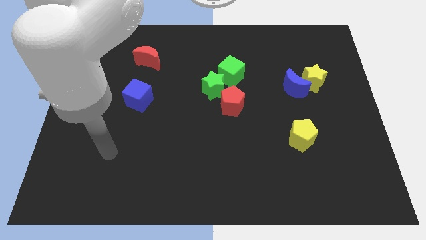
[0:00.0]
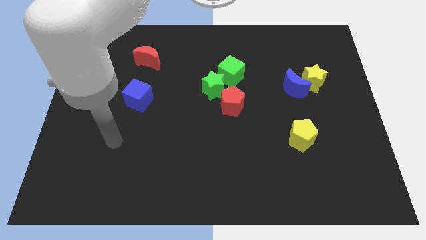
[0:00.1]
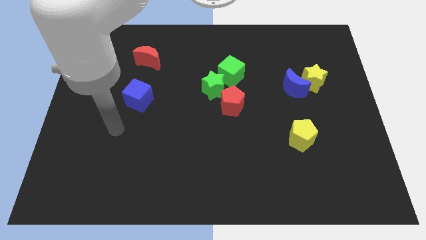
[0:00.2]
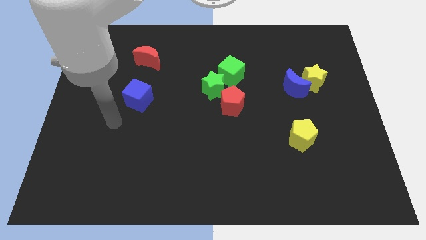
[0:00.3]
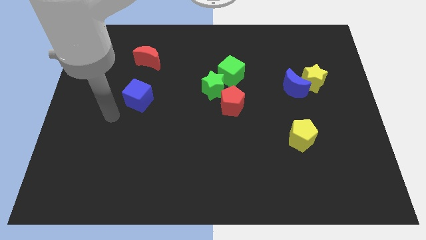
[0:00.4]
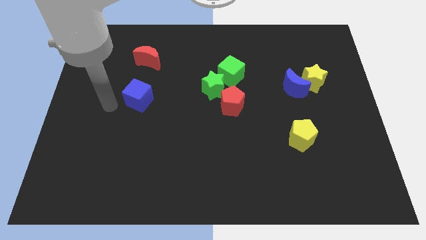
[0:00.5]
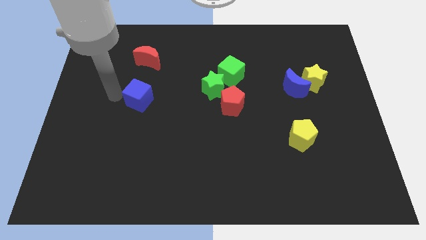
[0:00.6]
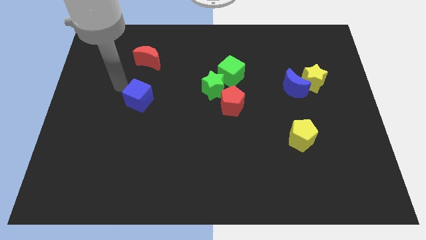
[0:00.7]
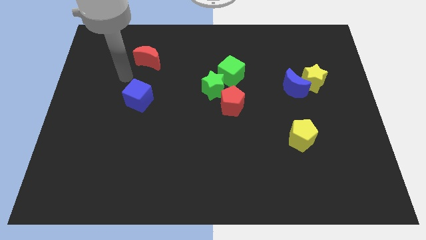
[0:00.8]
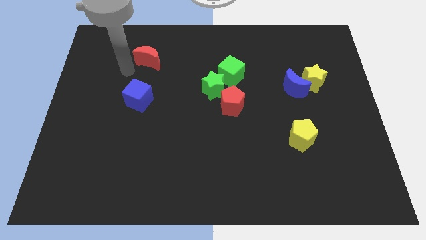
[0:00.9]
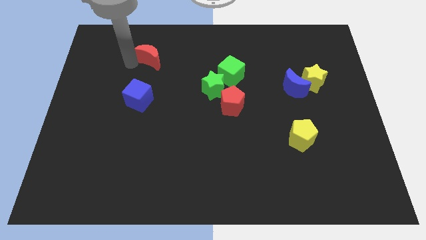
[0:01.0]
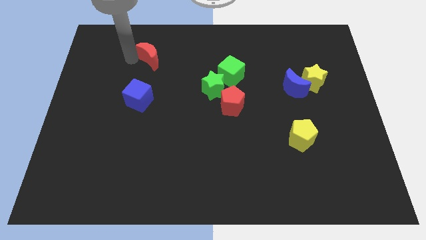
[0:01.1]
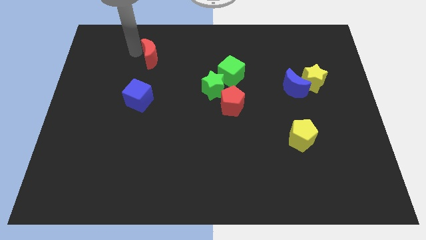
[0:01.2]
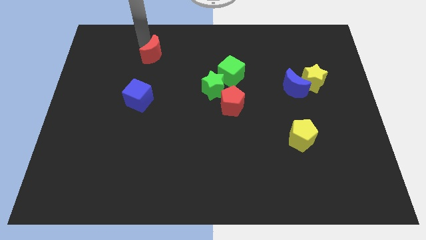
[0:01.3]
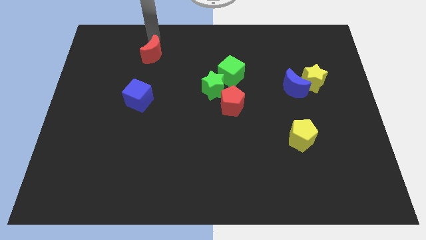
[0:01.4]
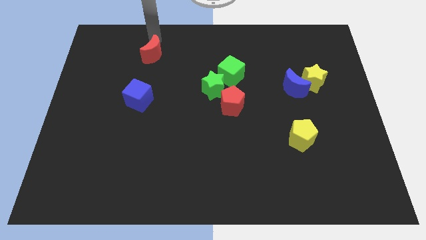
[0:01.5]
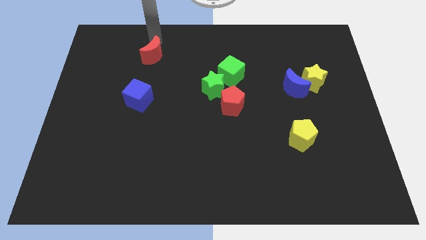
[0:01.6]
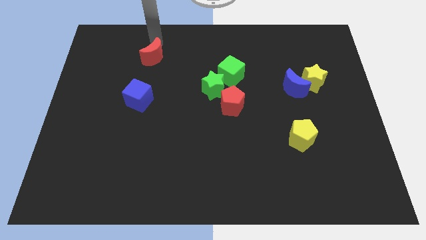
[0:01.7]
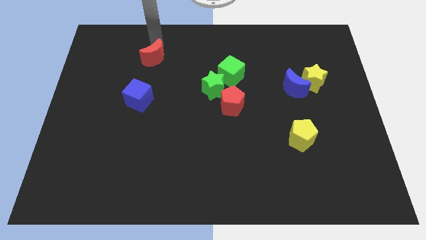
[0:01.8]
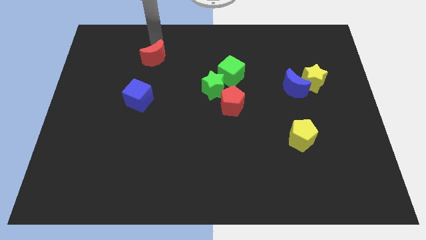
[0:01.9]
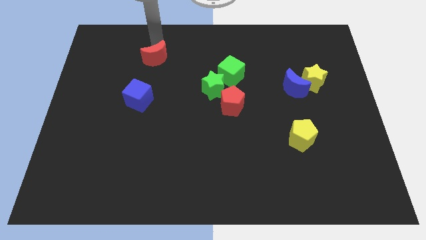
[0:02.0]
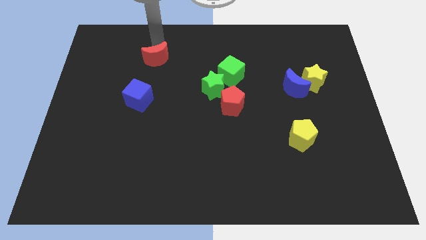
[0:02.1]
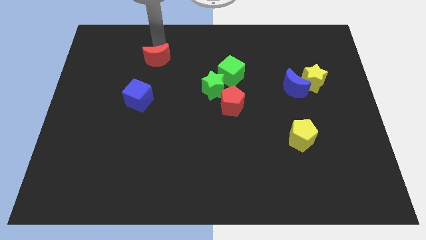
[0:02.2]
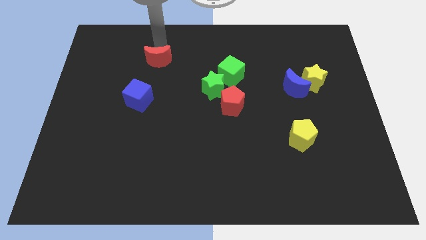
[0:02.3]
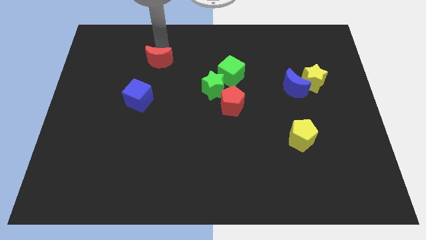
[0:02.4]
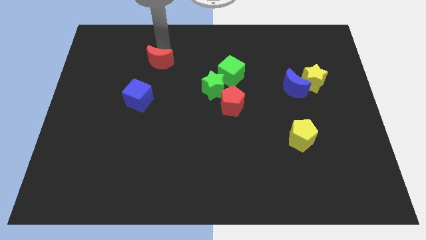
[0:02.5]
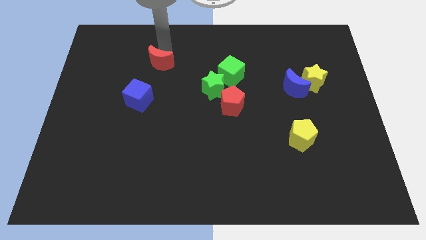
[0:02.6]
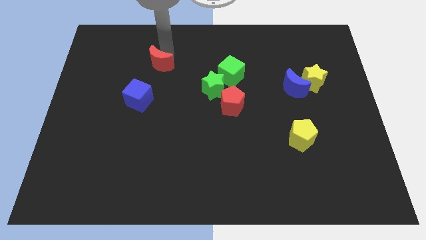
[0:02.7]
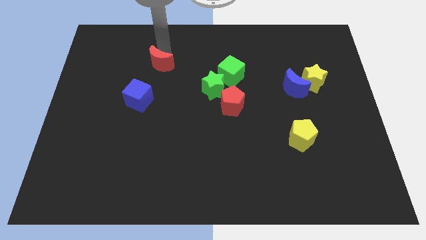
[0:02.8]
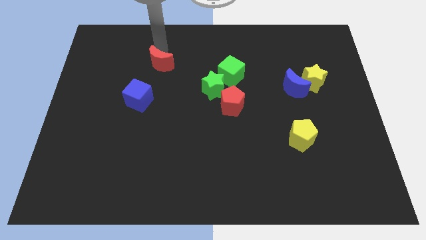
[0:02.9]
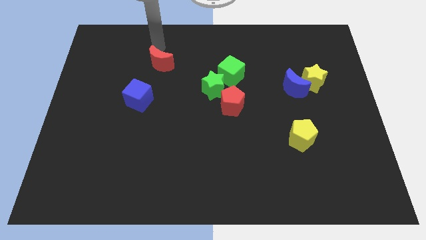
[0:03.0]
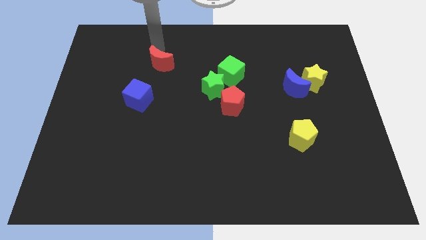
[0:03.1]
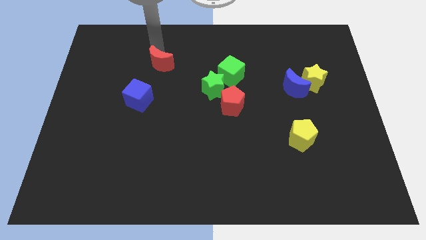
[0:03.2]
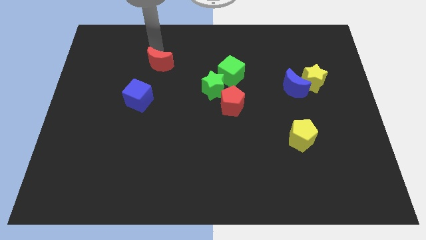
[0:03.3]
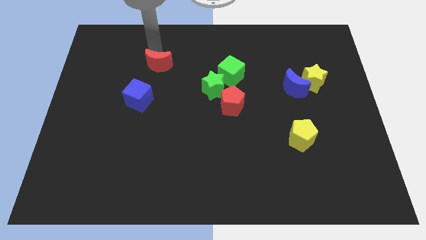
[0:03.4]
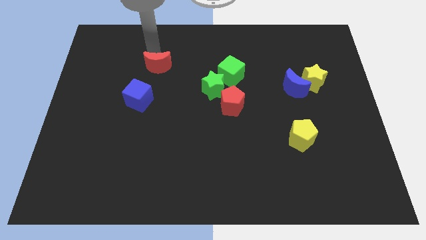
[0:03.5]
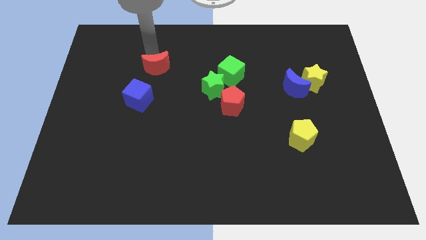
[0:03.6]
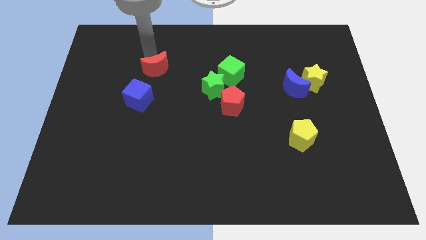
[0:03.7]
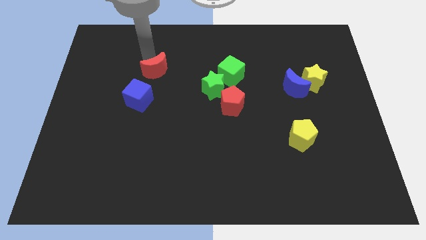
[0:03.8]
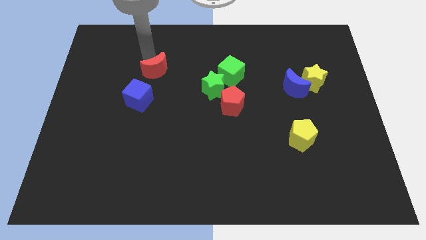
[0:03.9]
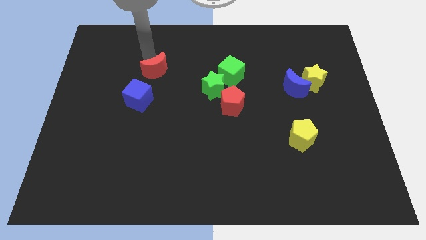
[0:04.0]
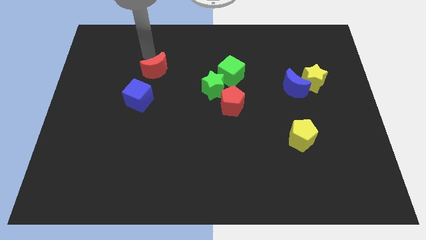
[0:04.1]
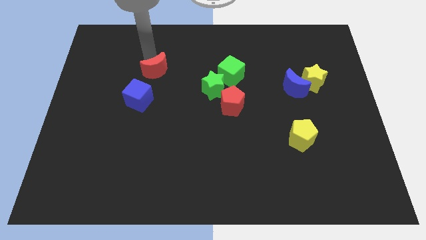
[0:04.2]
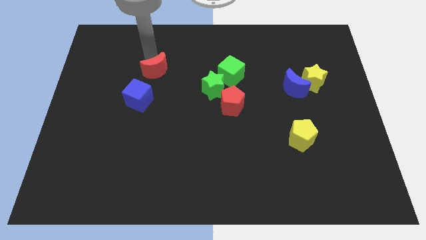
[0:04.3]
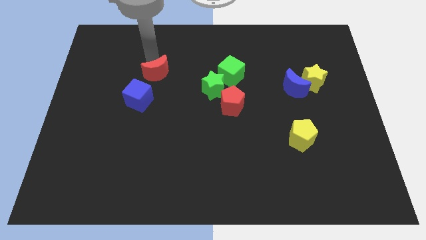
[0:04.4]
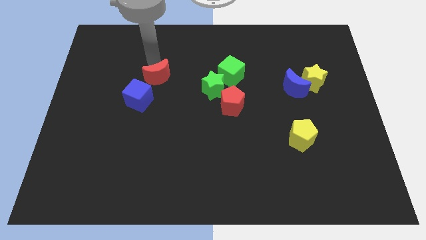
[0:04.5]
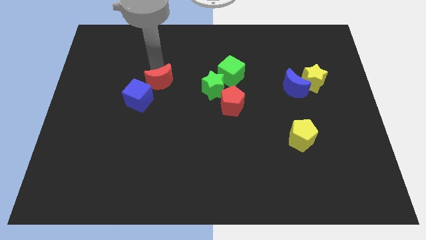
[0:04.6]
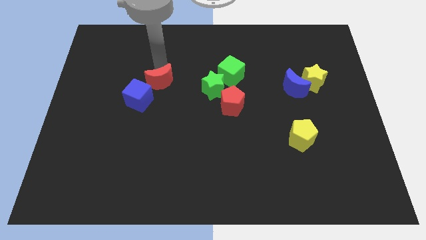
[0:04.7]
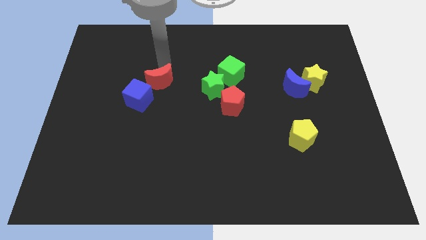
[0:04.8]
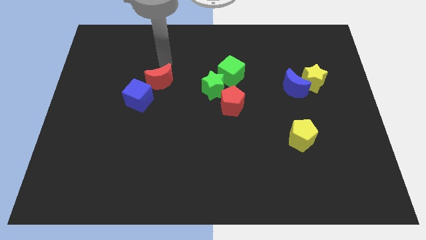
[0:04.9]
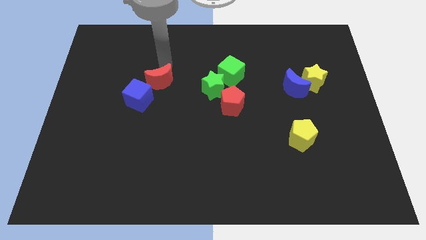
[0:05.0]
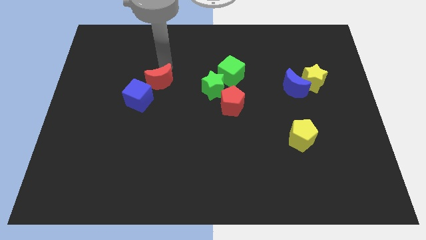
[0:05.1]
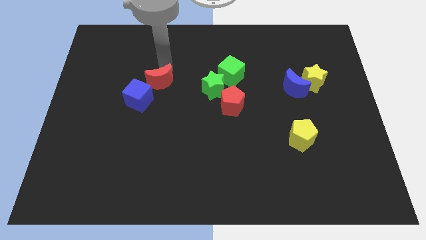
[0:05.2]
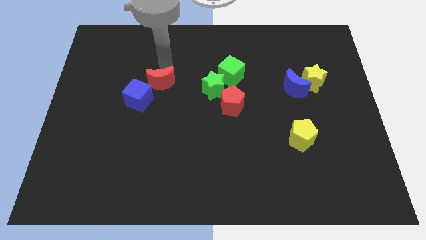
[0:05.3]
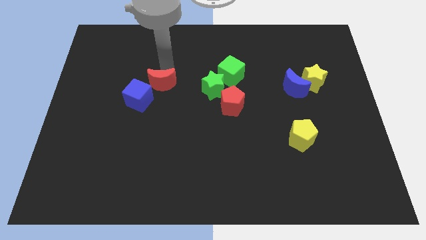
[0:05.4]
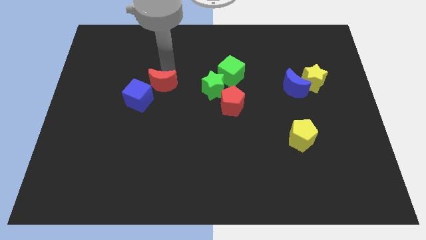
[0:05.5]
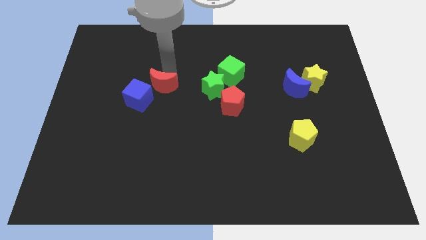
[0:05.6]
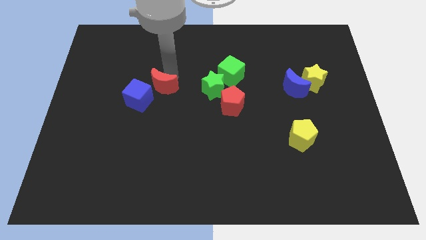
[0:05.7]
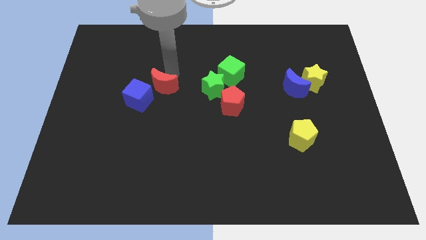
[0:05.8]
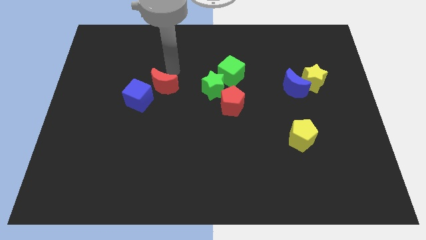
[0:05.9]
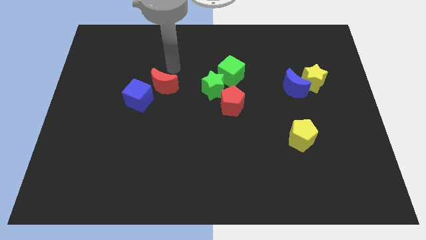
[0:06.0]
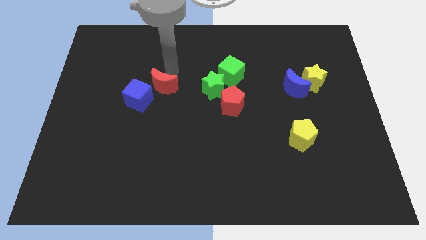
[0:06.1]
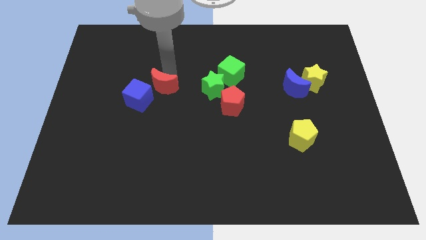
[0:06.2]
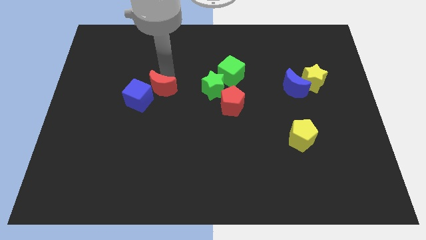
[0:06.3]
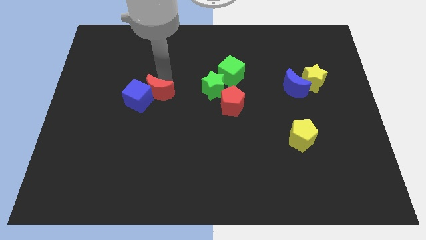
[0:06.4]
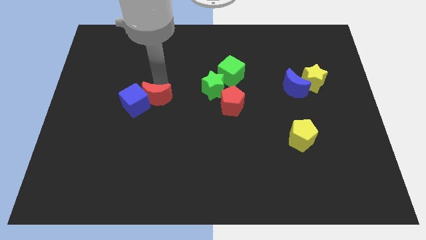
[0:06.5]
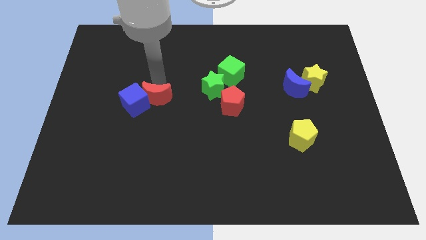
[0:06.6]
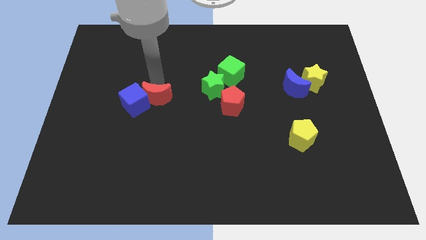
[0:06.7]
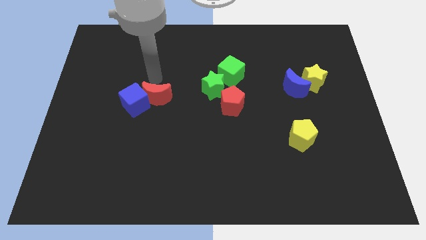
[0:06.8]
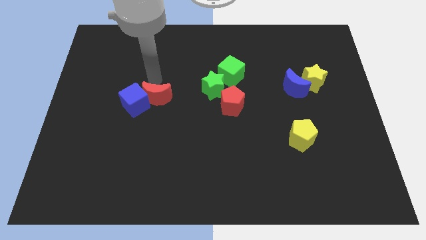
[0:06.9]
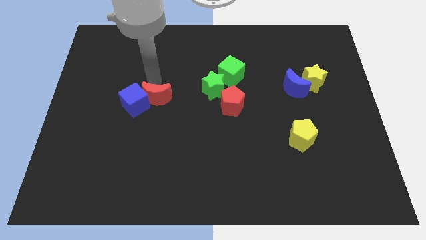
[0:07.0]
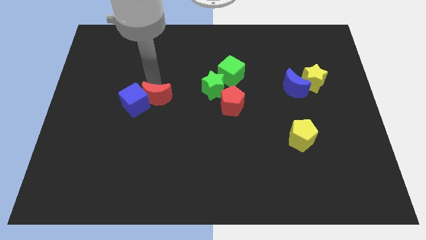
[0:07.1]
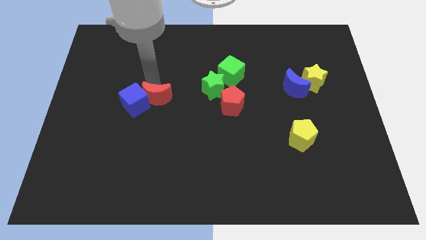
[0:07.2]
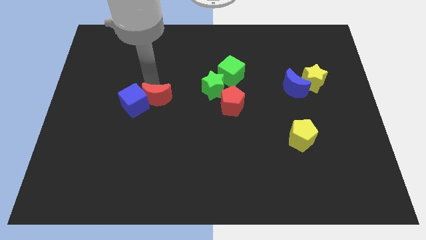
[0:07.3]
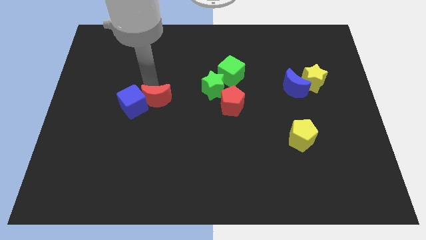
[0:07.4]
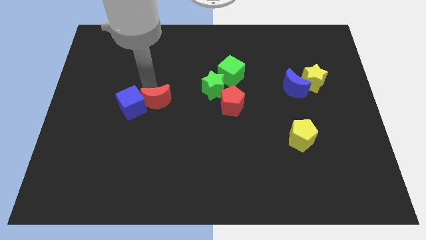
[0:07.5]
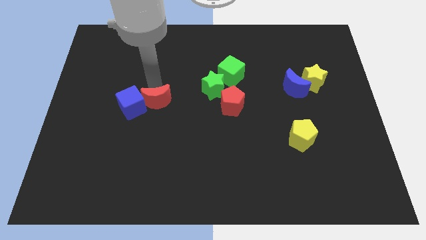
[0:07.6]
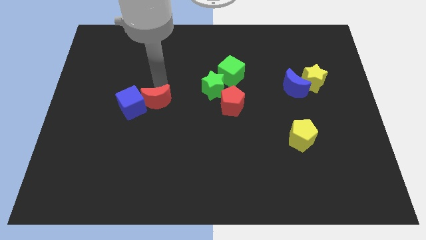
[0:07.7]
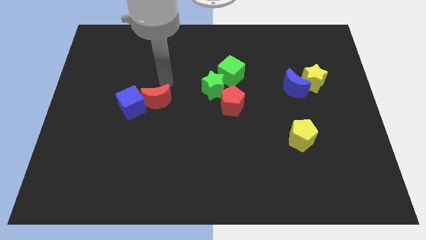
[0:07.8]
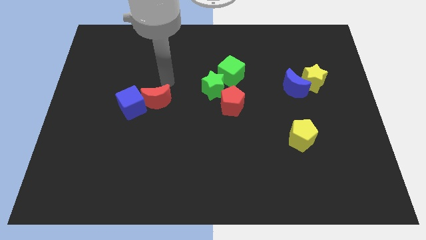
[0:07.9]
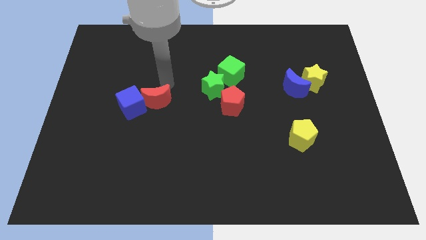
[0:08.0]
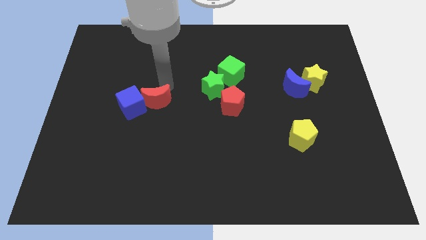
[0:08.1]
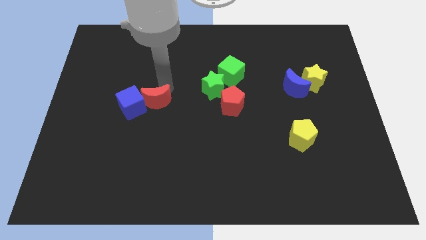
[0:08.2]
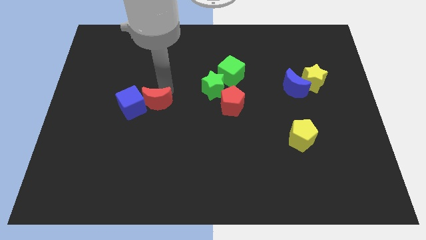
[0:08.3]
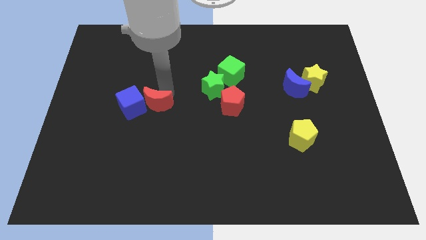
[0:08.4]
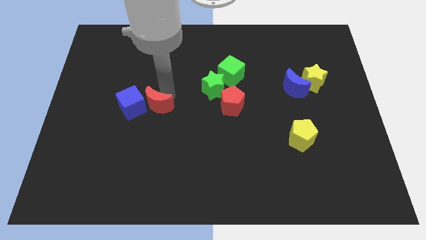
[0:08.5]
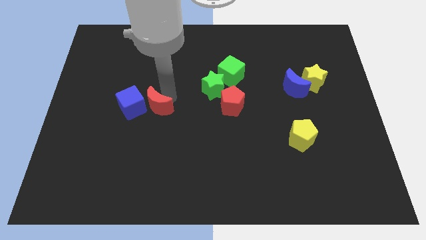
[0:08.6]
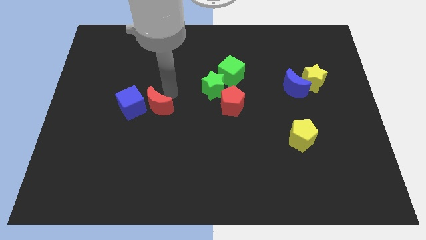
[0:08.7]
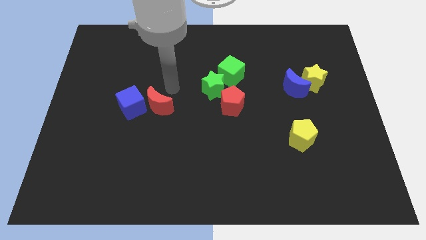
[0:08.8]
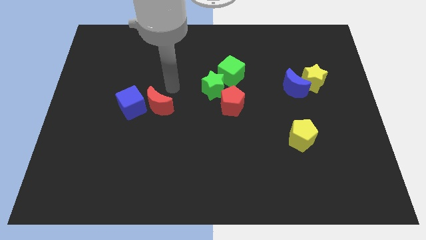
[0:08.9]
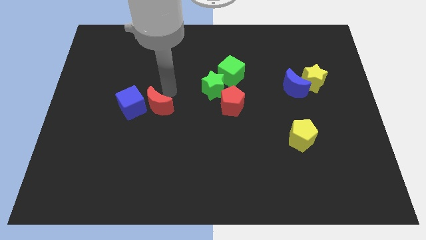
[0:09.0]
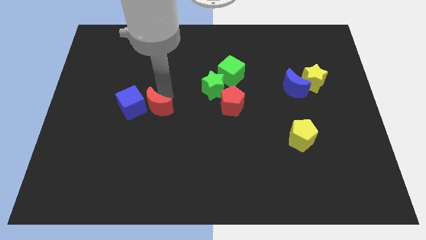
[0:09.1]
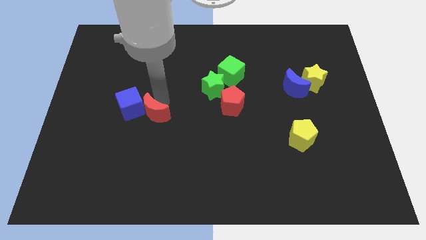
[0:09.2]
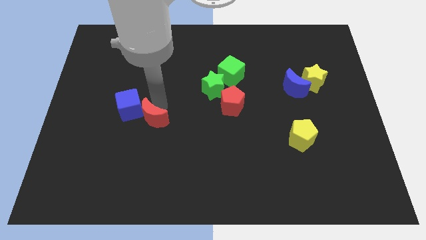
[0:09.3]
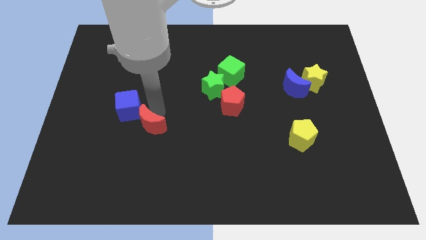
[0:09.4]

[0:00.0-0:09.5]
move the red moon down
